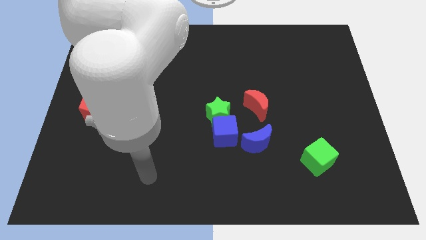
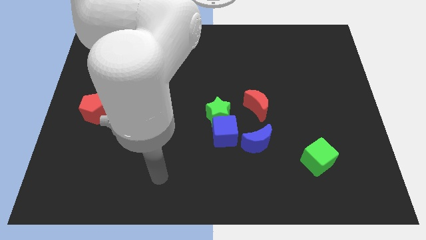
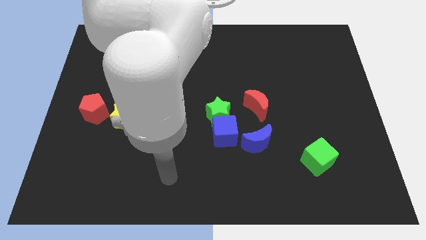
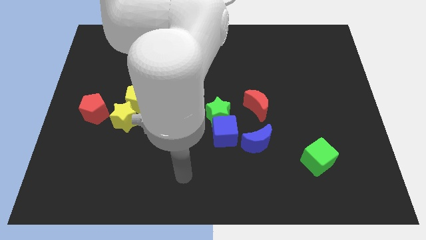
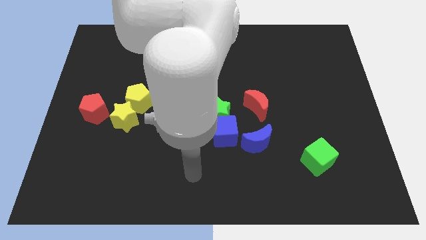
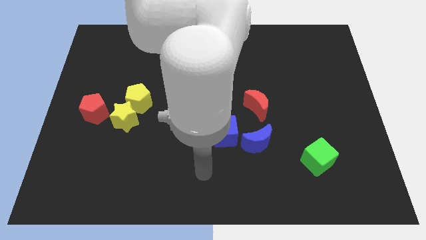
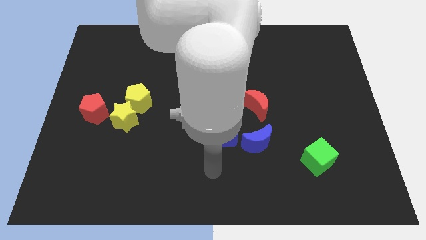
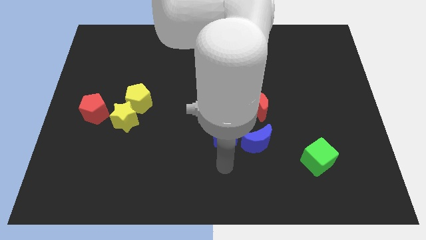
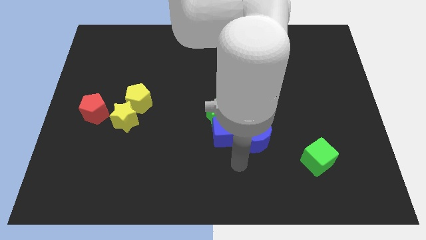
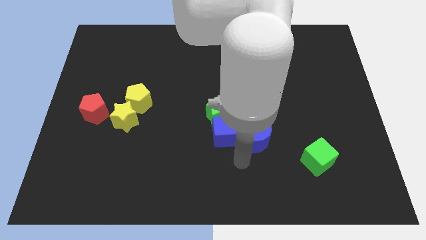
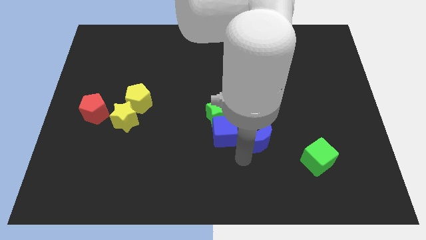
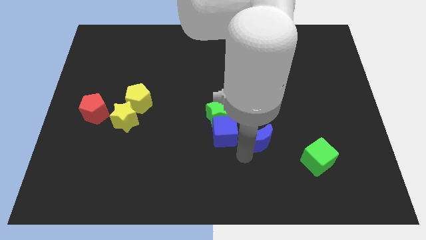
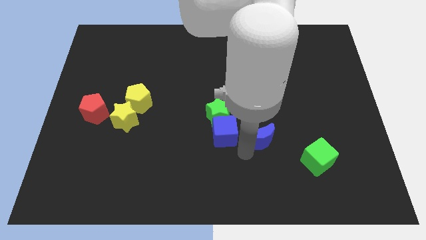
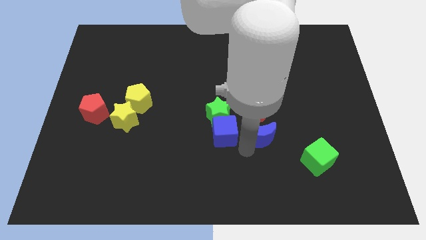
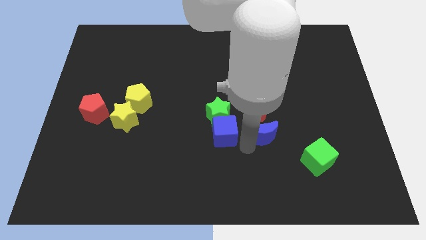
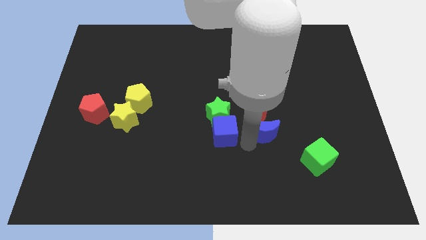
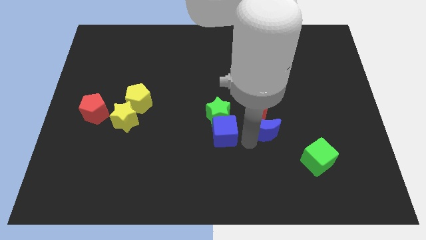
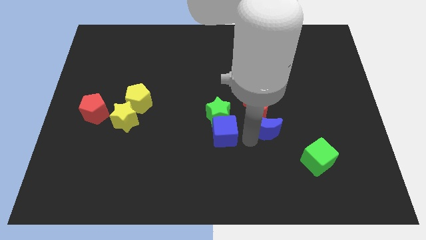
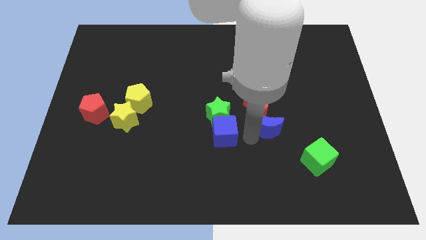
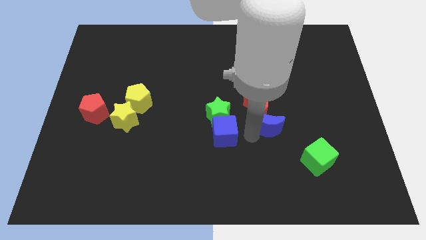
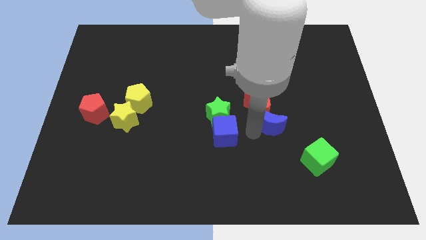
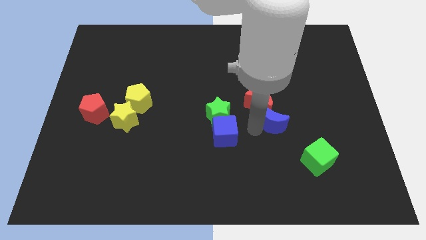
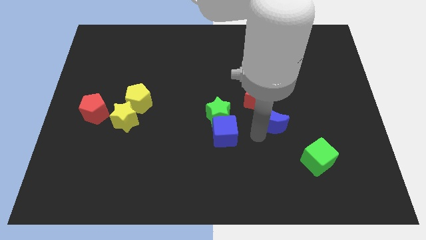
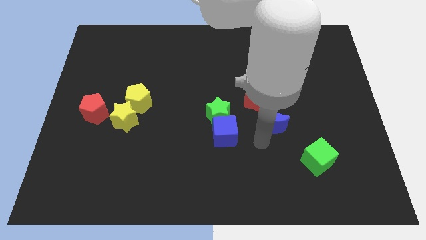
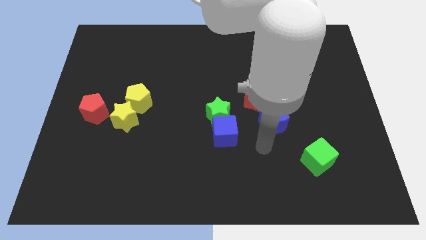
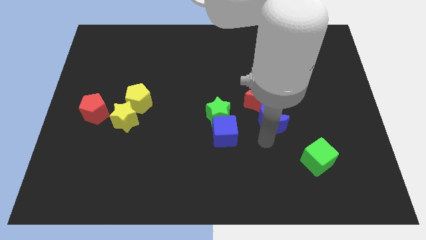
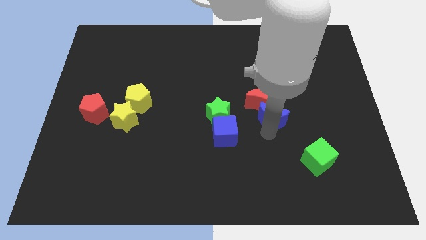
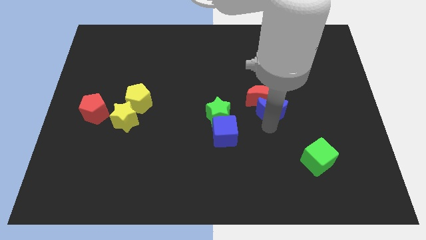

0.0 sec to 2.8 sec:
push the blue moon upwards slightly

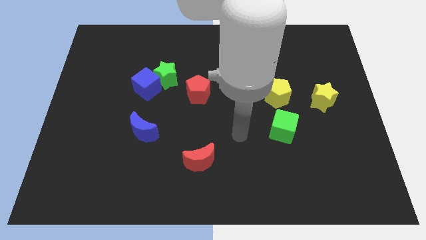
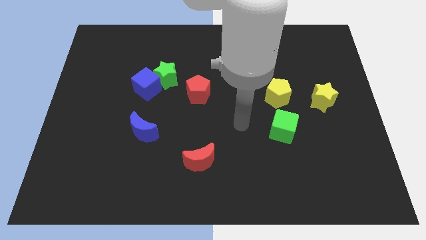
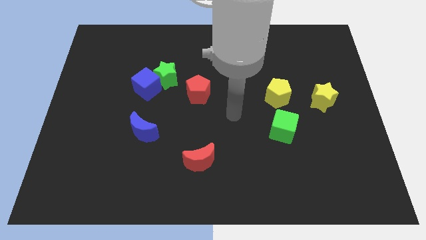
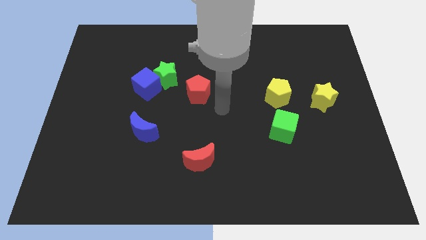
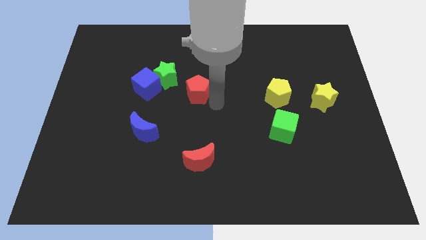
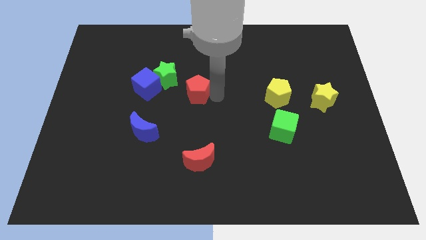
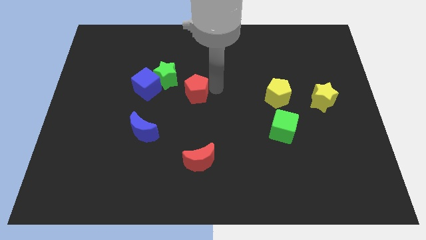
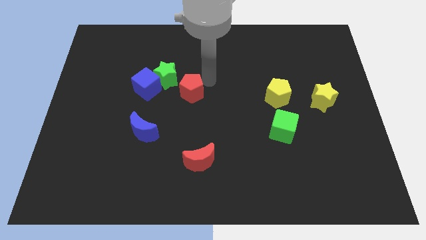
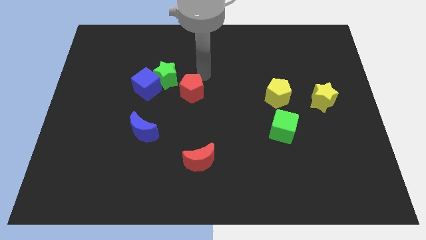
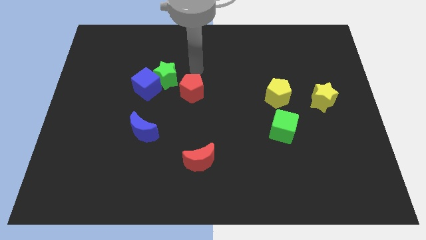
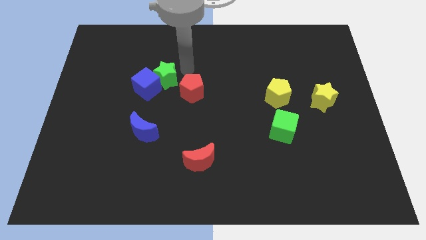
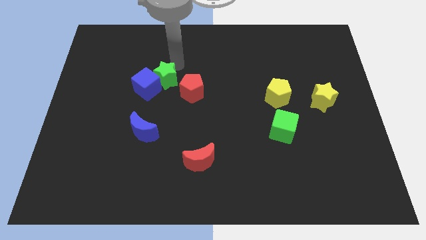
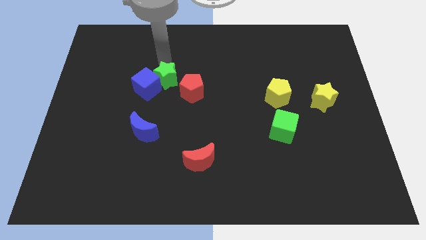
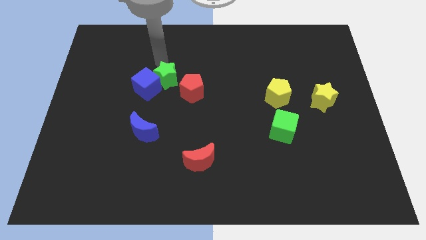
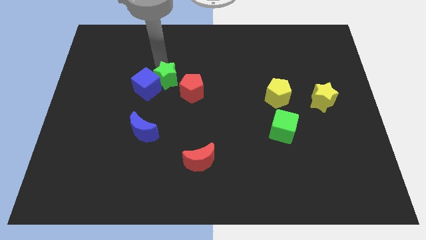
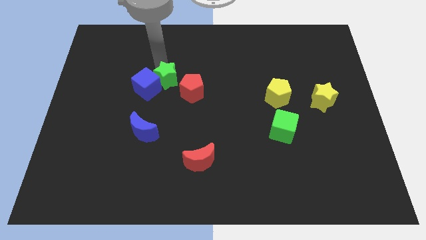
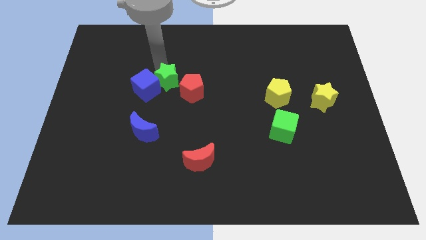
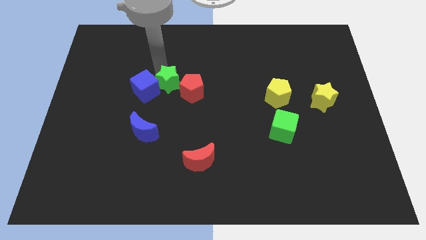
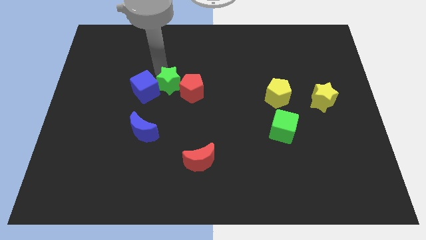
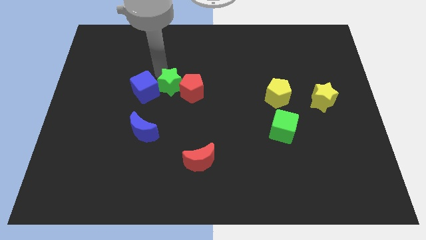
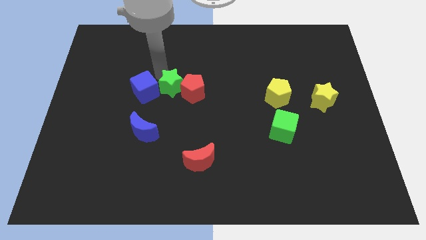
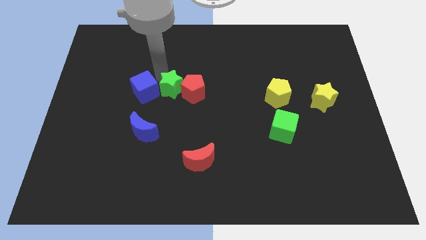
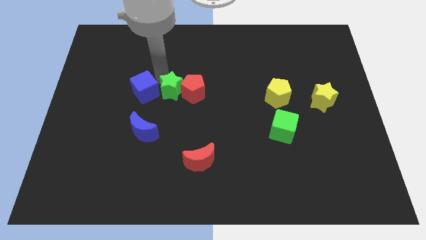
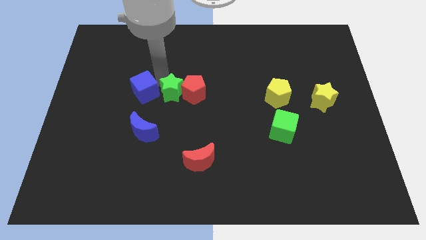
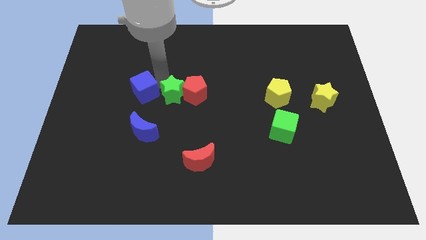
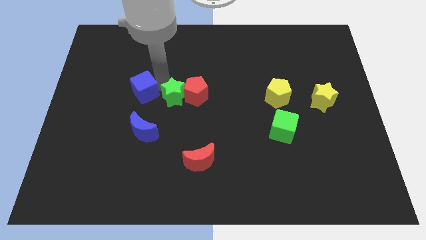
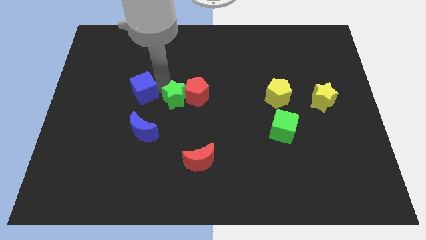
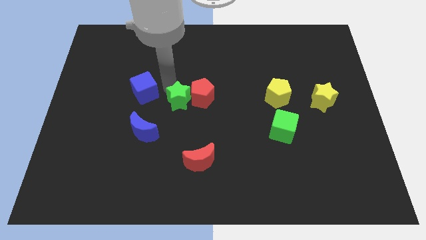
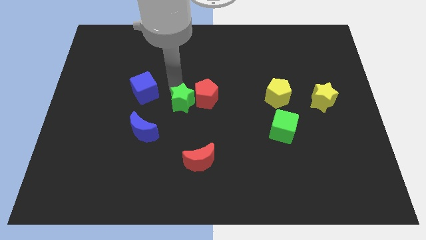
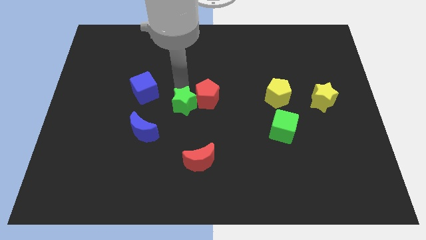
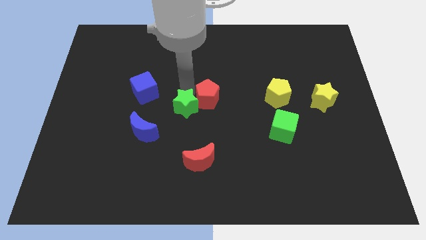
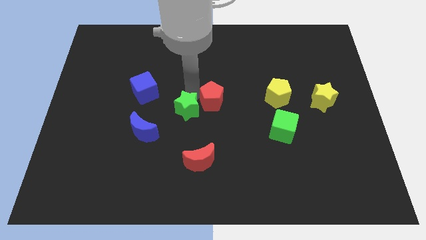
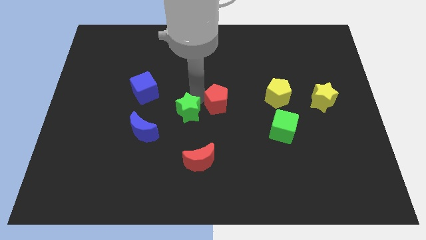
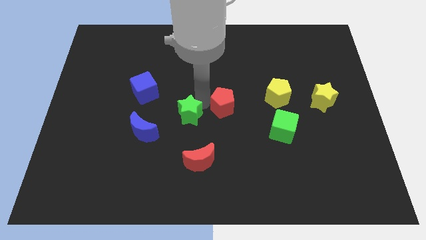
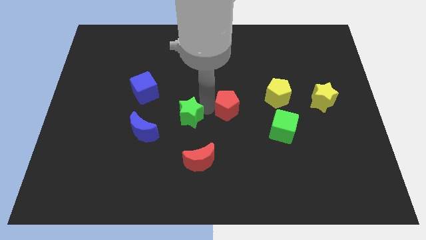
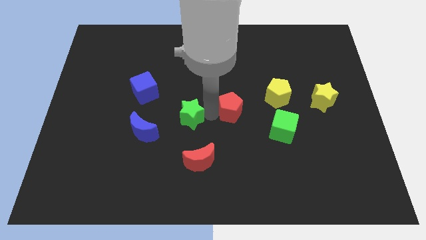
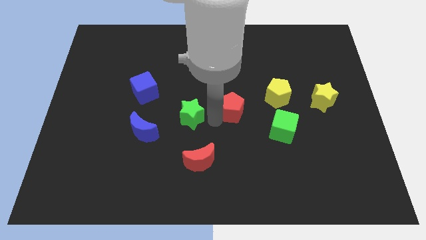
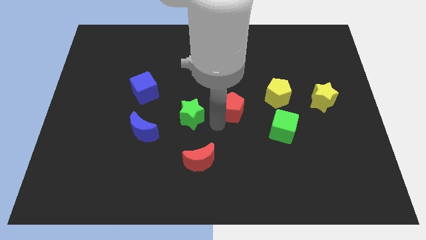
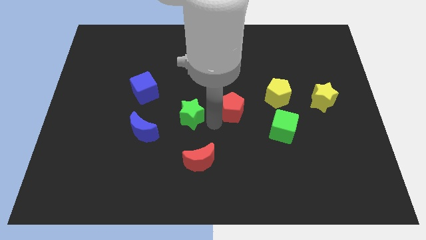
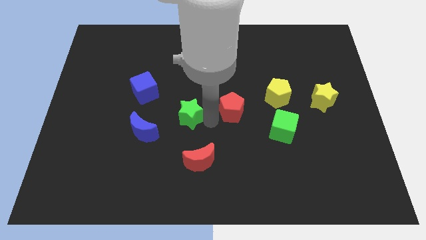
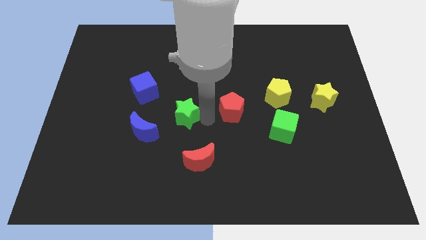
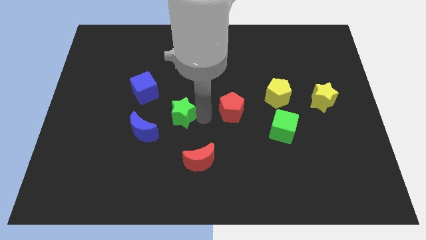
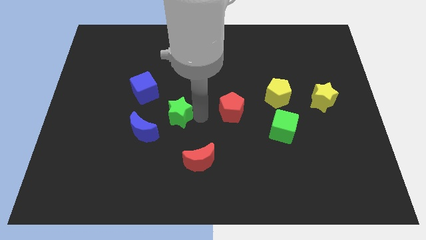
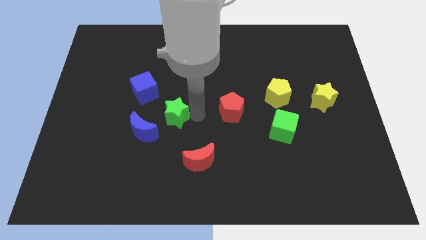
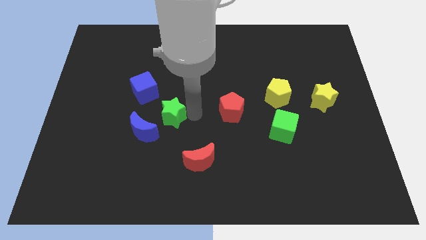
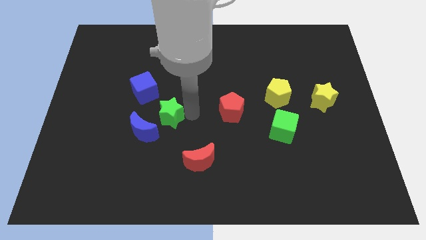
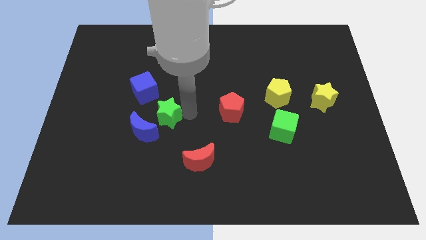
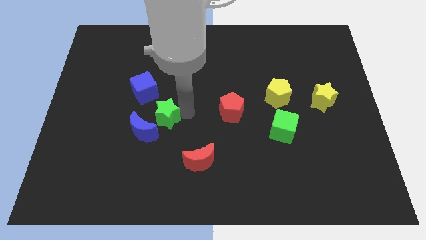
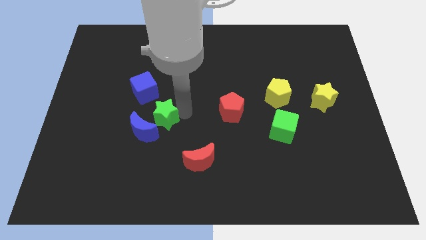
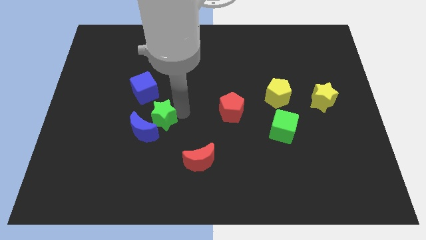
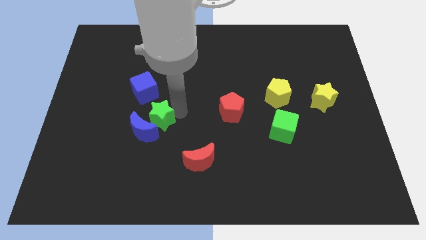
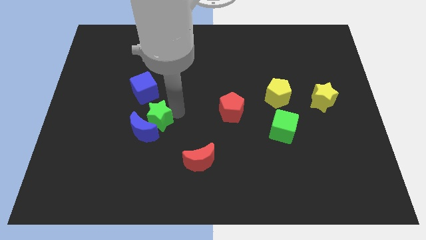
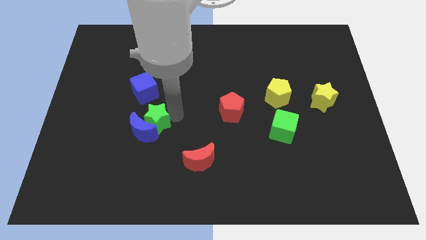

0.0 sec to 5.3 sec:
slightly slide the green star downwards and then to the left
